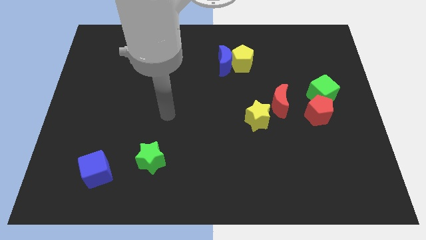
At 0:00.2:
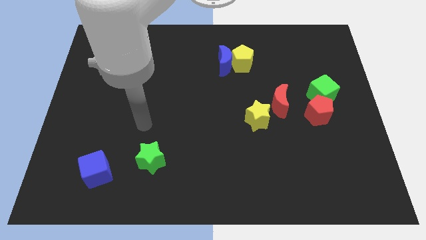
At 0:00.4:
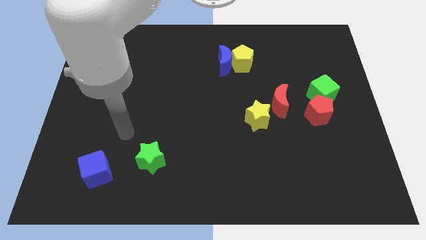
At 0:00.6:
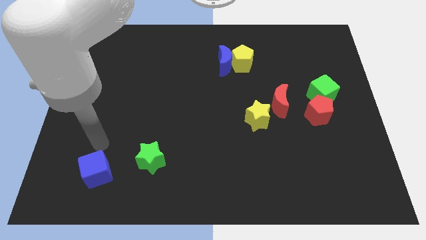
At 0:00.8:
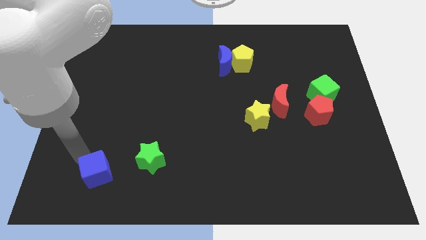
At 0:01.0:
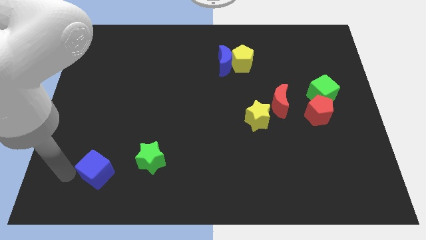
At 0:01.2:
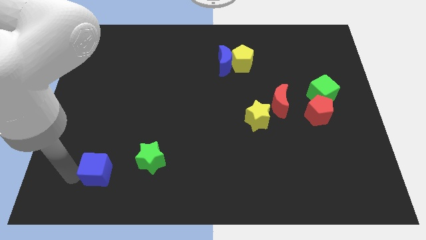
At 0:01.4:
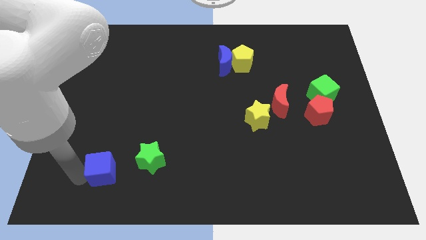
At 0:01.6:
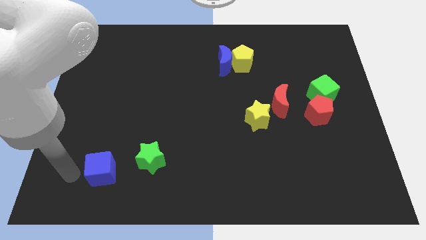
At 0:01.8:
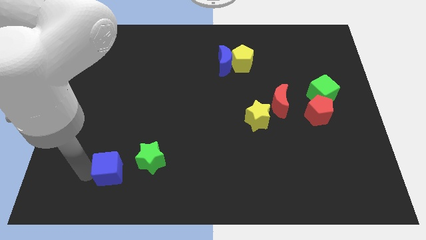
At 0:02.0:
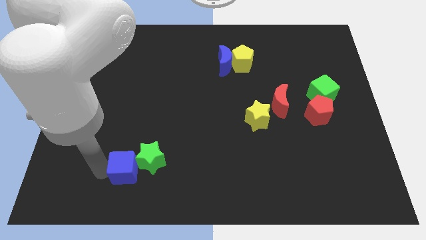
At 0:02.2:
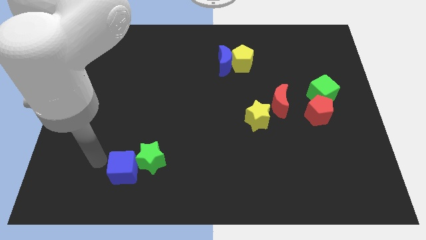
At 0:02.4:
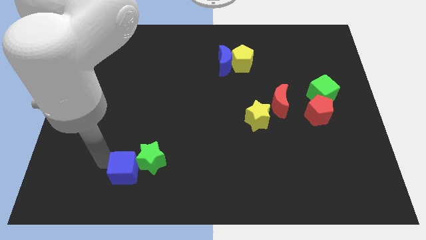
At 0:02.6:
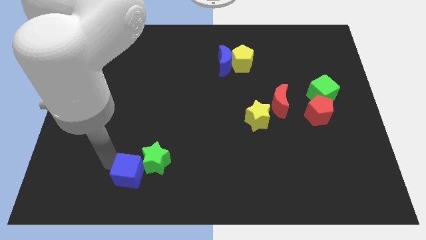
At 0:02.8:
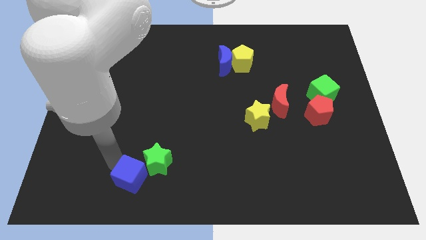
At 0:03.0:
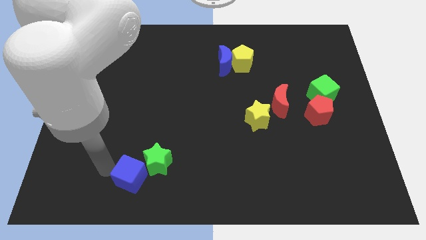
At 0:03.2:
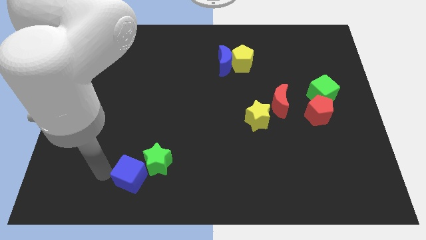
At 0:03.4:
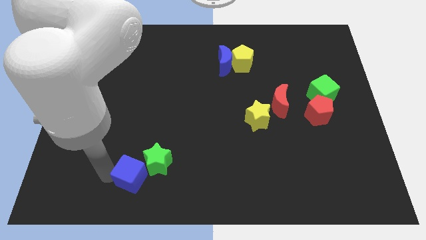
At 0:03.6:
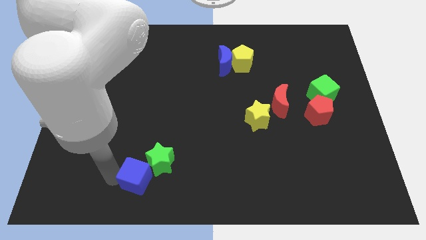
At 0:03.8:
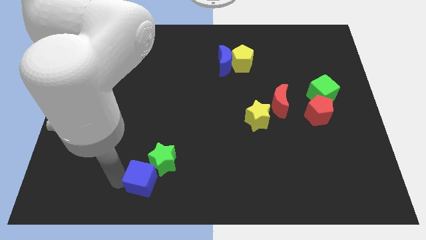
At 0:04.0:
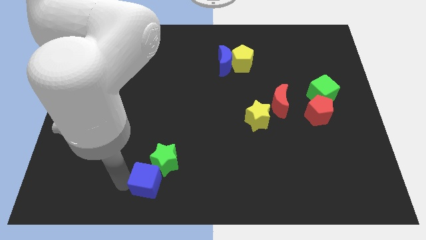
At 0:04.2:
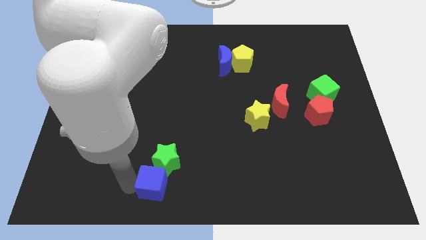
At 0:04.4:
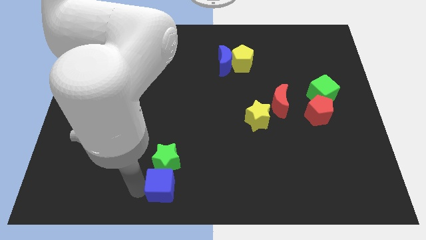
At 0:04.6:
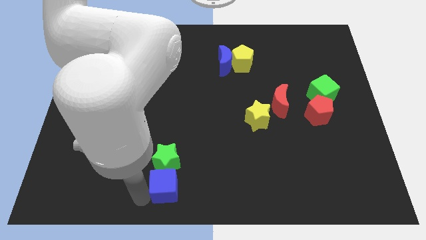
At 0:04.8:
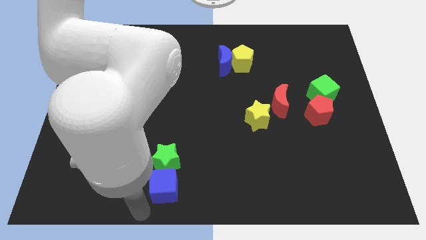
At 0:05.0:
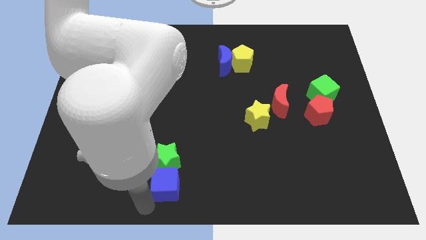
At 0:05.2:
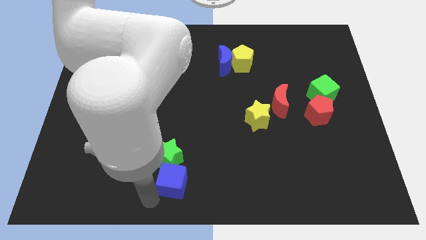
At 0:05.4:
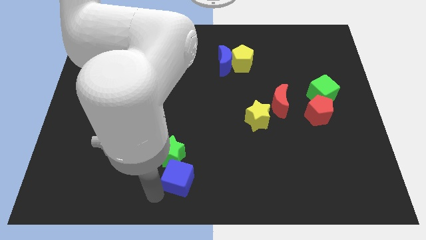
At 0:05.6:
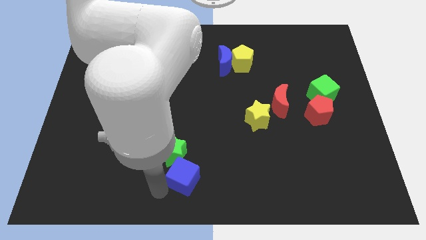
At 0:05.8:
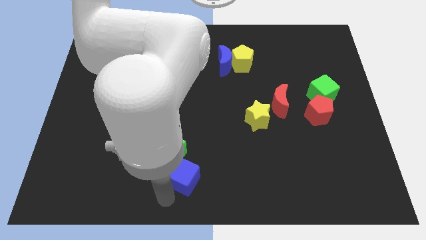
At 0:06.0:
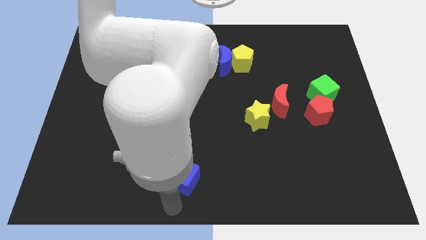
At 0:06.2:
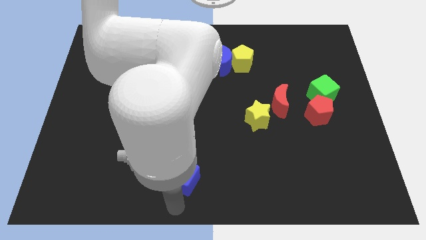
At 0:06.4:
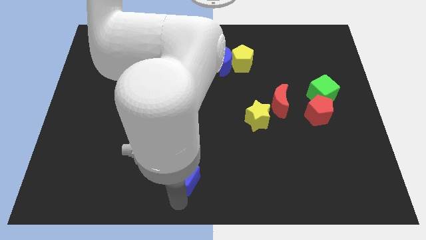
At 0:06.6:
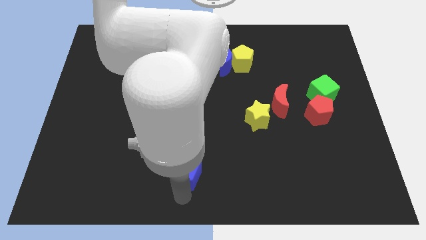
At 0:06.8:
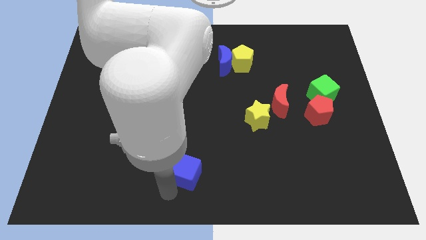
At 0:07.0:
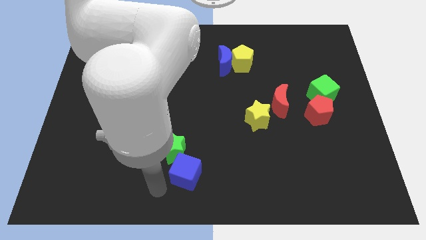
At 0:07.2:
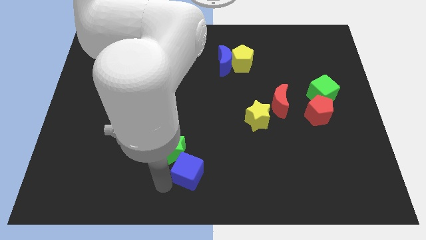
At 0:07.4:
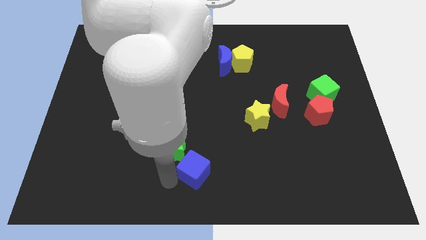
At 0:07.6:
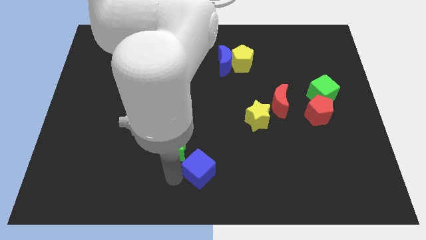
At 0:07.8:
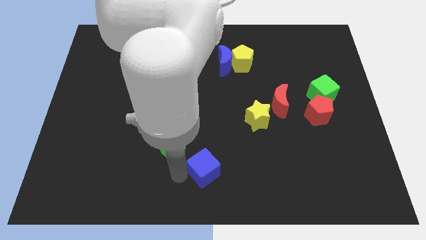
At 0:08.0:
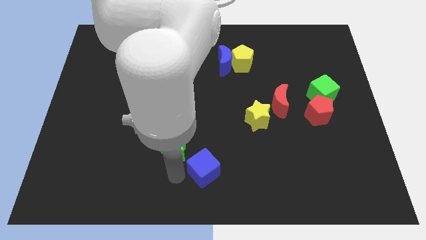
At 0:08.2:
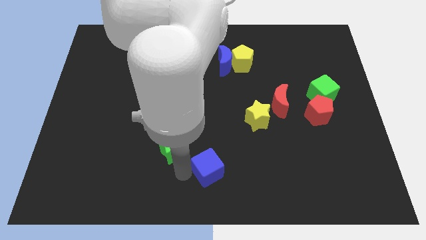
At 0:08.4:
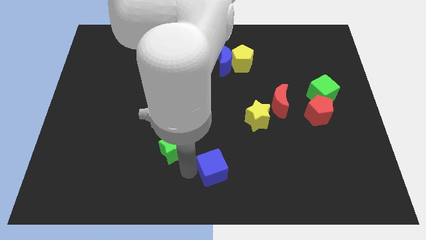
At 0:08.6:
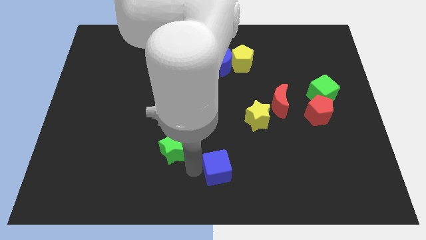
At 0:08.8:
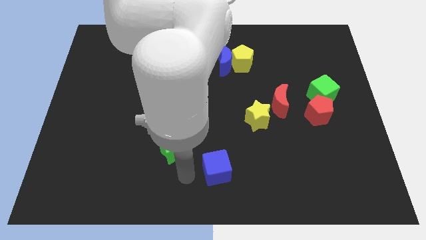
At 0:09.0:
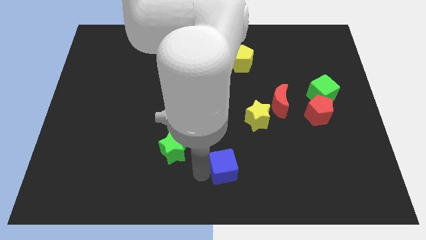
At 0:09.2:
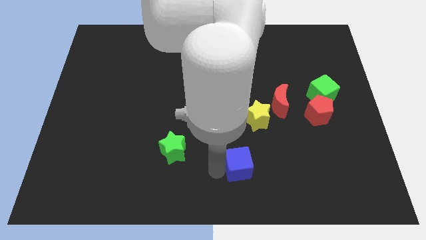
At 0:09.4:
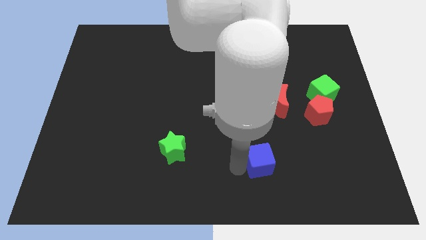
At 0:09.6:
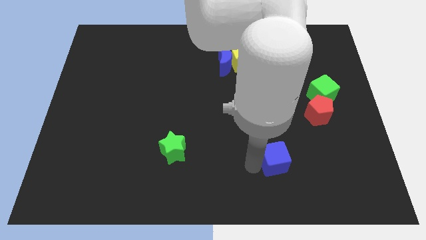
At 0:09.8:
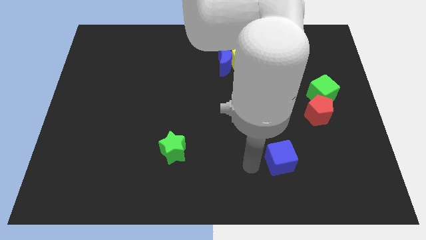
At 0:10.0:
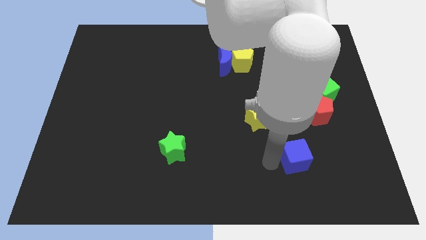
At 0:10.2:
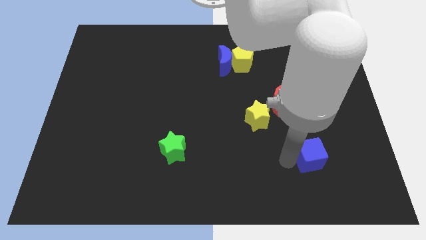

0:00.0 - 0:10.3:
push the blue cube to the bottom side of the red pentagon

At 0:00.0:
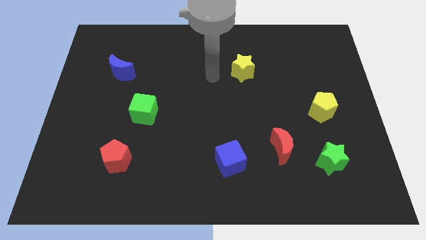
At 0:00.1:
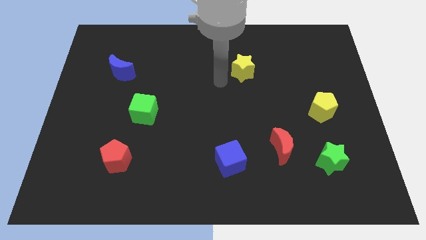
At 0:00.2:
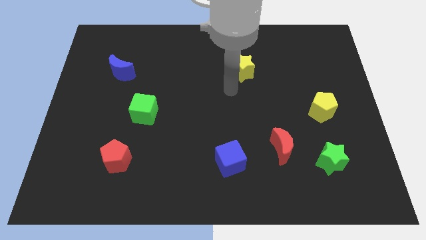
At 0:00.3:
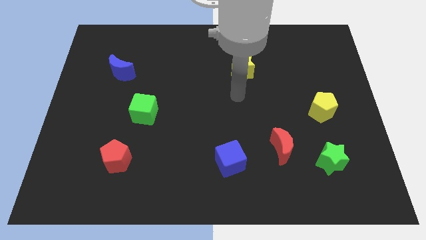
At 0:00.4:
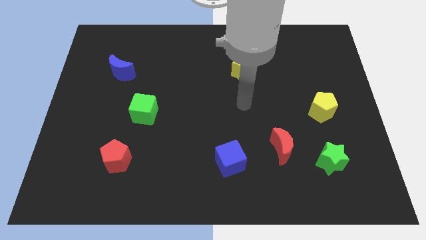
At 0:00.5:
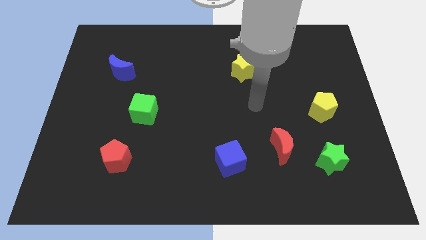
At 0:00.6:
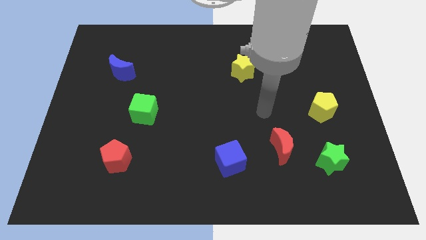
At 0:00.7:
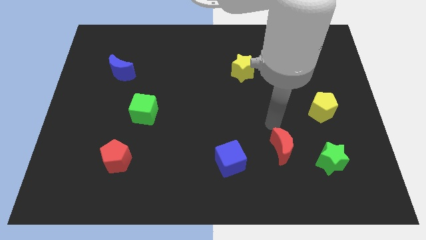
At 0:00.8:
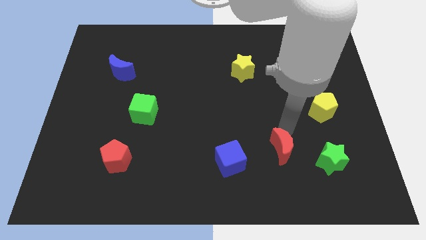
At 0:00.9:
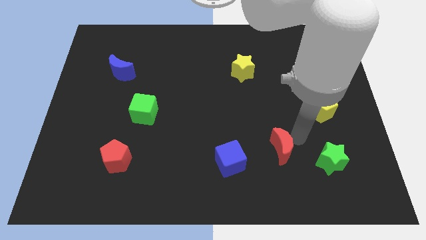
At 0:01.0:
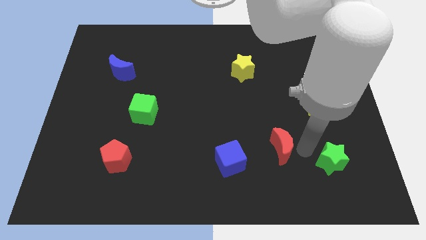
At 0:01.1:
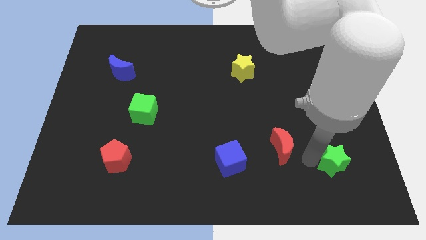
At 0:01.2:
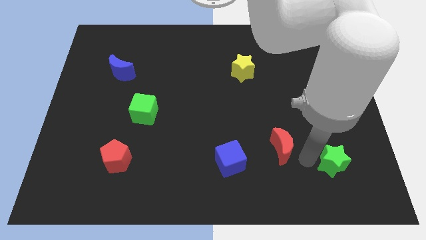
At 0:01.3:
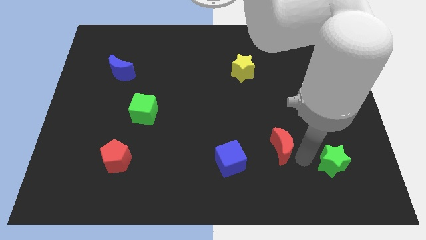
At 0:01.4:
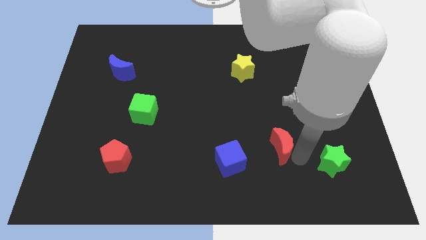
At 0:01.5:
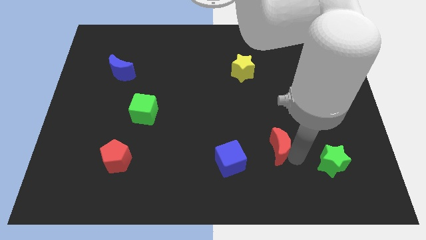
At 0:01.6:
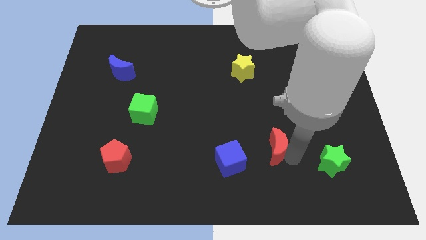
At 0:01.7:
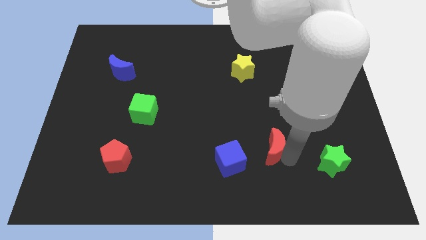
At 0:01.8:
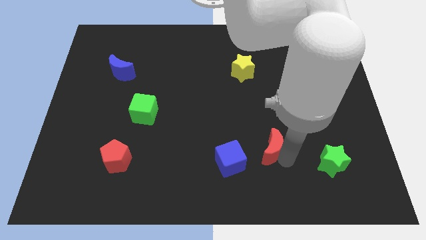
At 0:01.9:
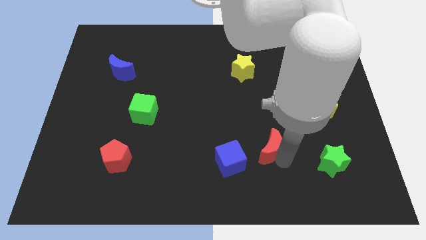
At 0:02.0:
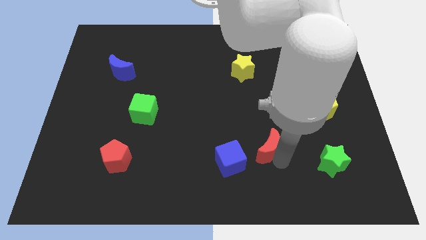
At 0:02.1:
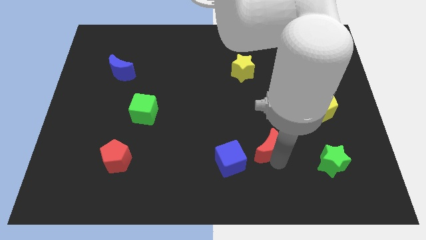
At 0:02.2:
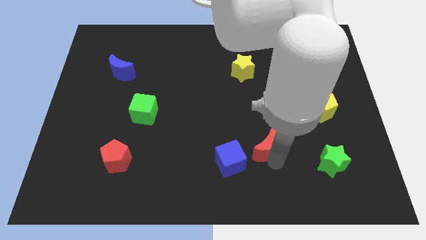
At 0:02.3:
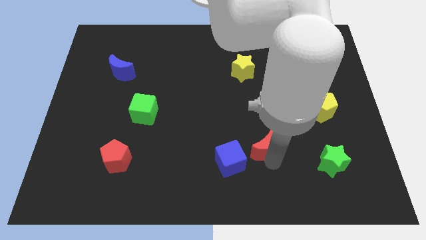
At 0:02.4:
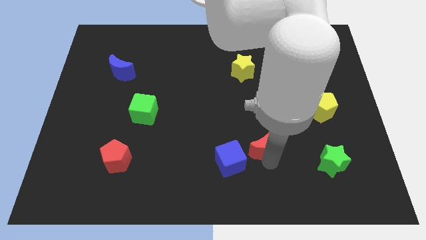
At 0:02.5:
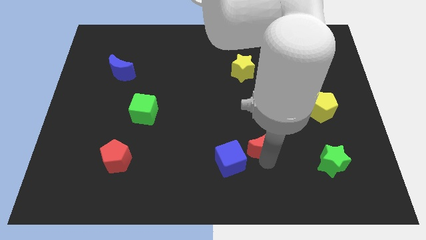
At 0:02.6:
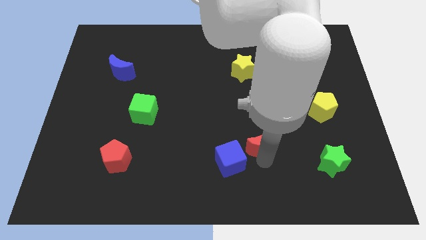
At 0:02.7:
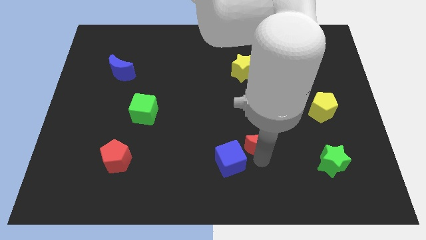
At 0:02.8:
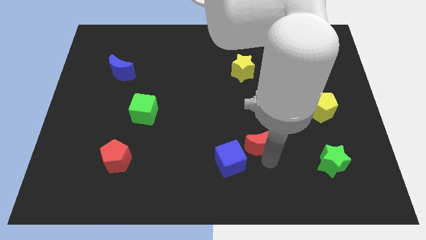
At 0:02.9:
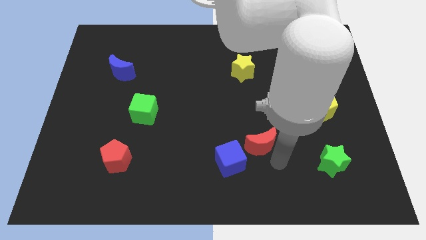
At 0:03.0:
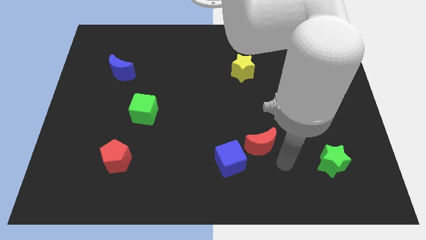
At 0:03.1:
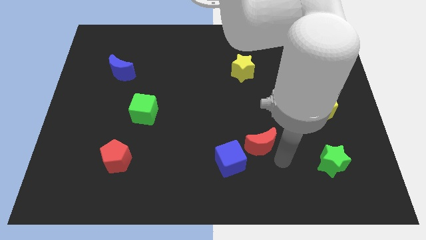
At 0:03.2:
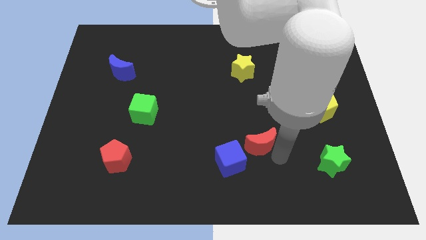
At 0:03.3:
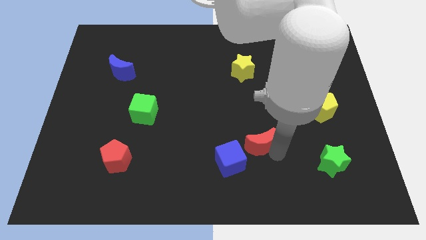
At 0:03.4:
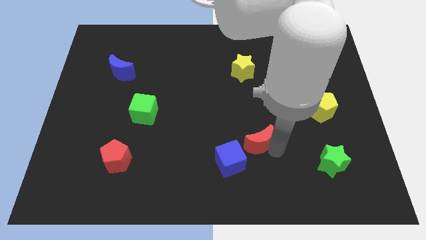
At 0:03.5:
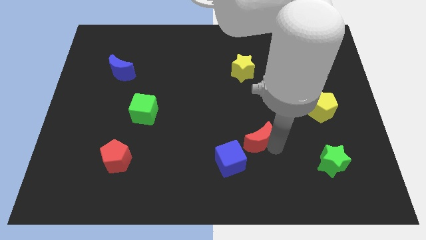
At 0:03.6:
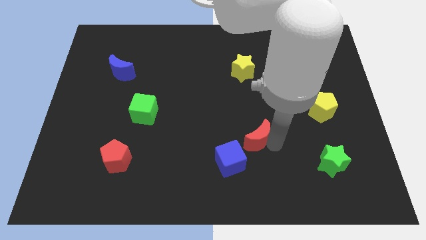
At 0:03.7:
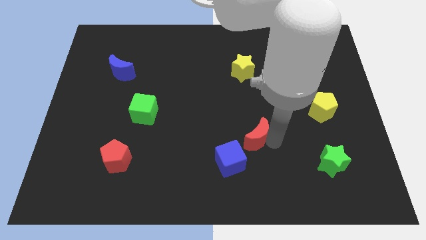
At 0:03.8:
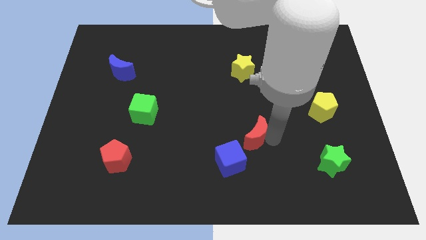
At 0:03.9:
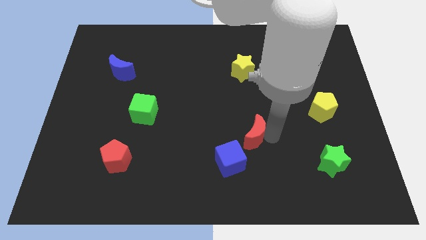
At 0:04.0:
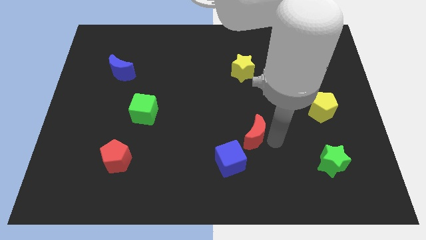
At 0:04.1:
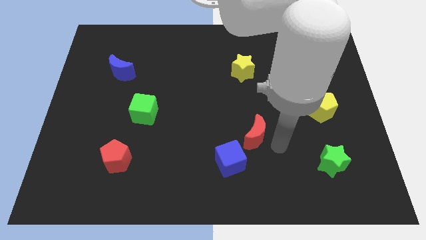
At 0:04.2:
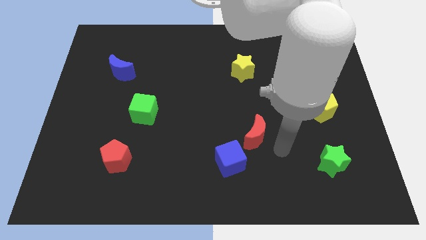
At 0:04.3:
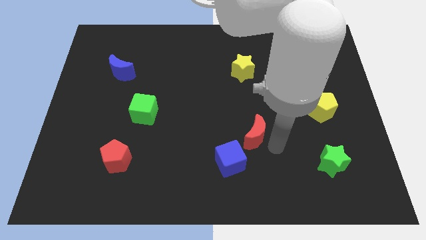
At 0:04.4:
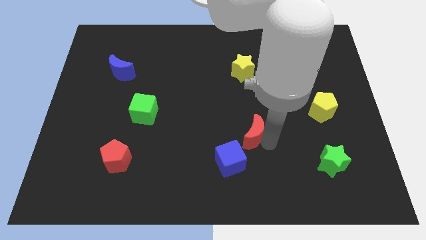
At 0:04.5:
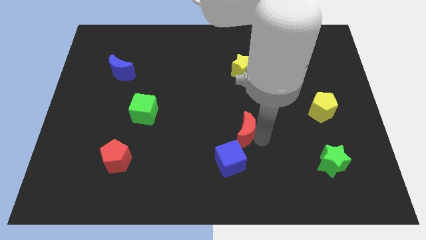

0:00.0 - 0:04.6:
push the red moon to the top side of the blue cube
